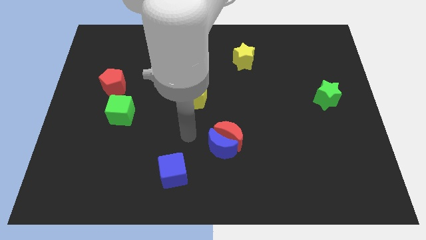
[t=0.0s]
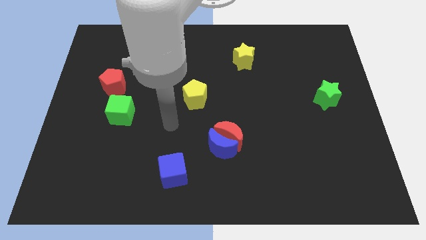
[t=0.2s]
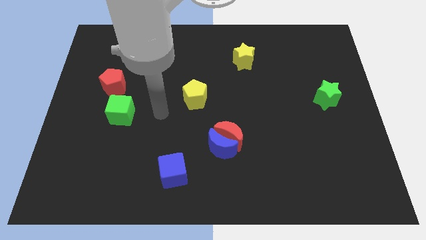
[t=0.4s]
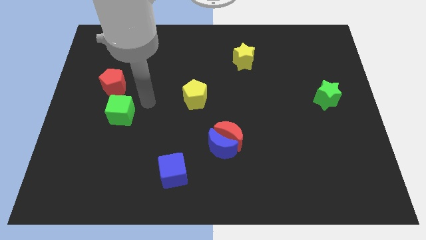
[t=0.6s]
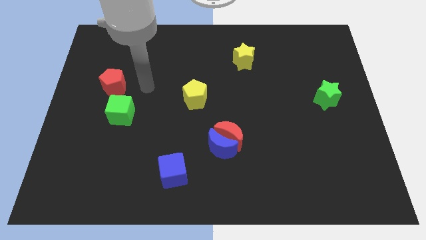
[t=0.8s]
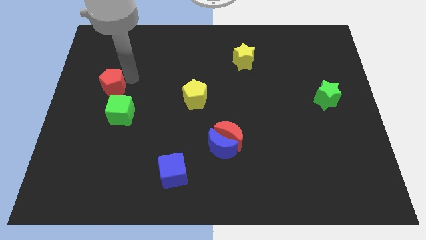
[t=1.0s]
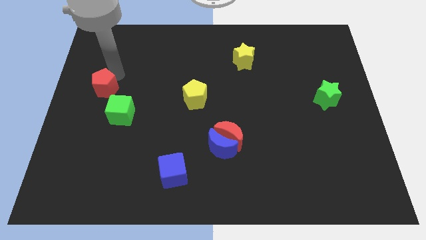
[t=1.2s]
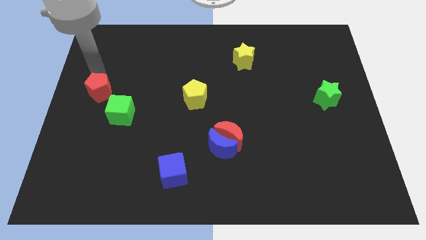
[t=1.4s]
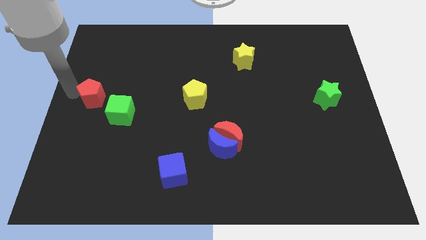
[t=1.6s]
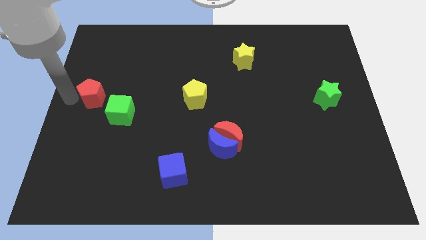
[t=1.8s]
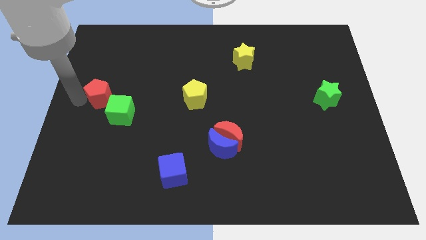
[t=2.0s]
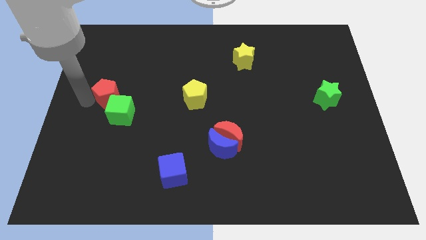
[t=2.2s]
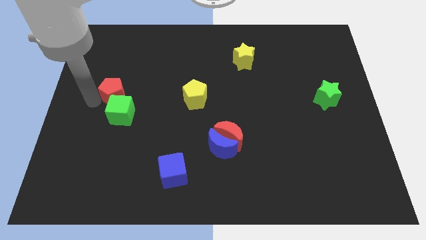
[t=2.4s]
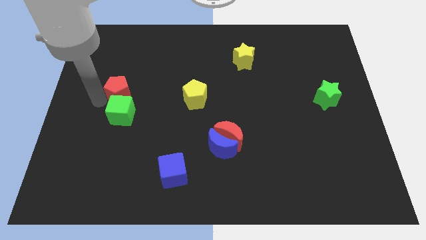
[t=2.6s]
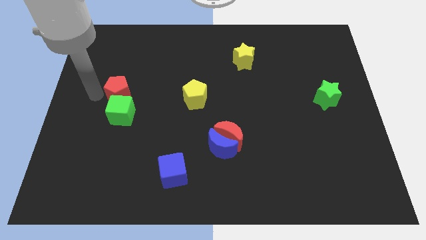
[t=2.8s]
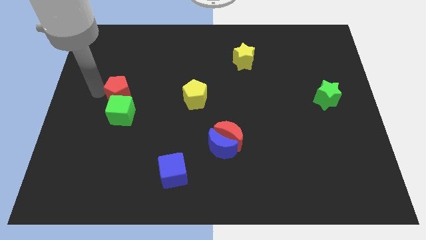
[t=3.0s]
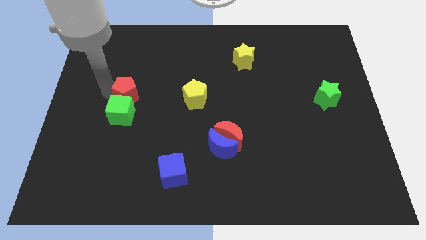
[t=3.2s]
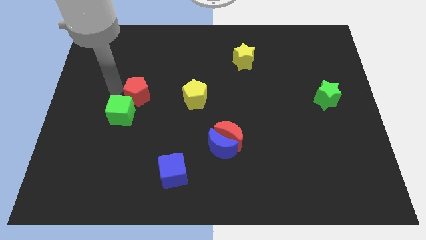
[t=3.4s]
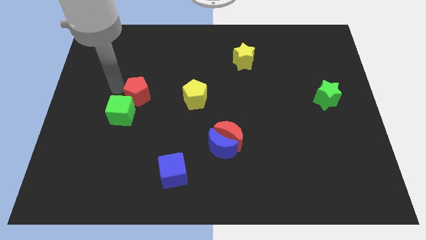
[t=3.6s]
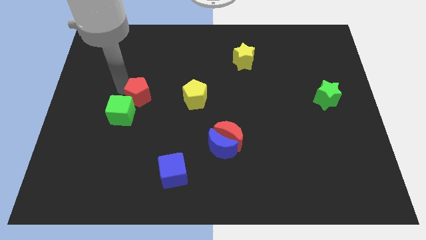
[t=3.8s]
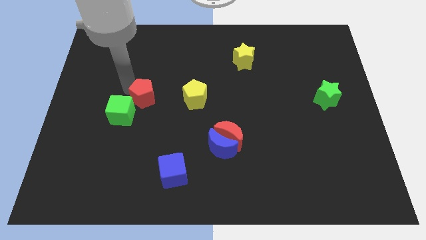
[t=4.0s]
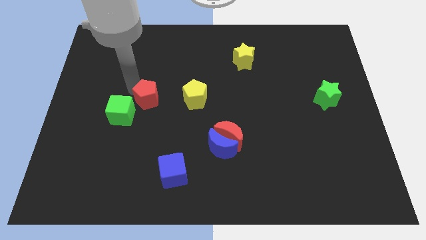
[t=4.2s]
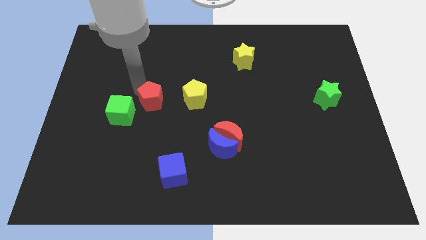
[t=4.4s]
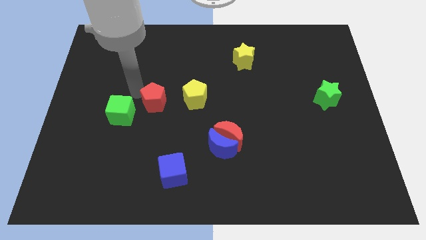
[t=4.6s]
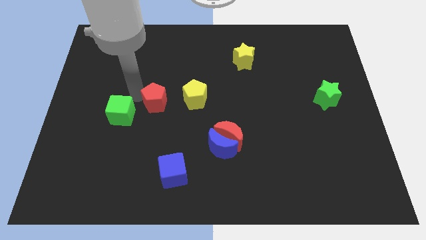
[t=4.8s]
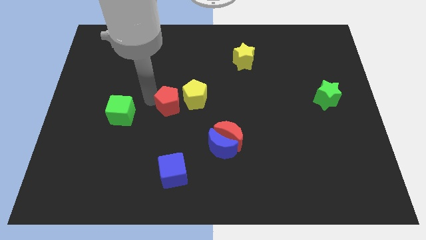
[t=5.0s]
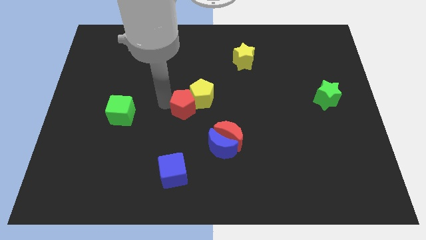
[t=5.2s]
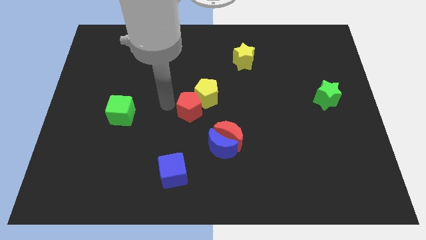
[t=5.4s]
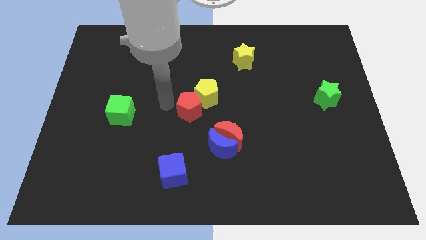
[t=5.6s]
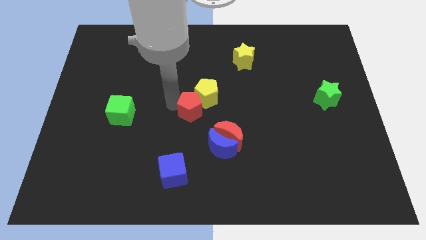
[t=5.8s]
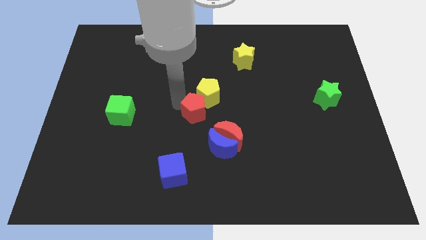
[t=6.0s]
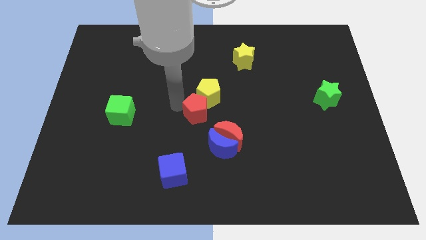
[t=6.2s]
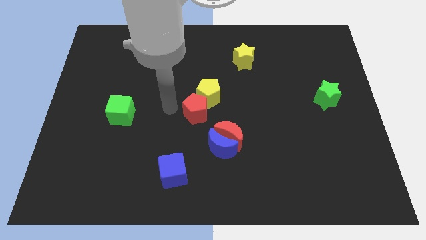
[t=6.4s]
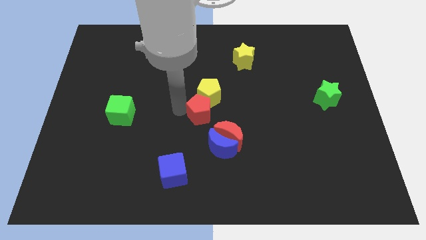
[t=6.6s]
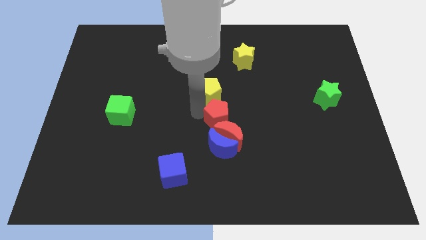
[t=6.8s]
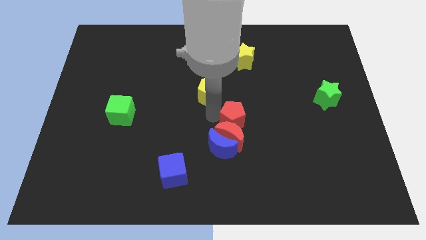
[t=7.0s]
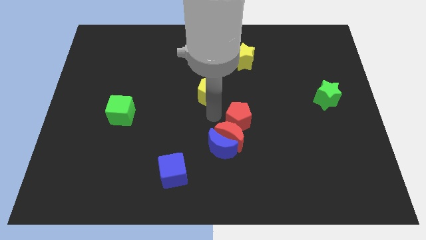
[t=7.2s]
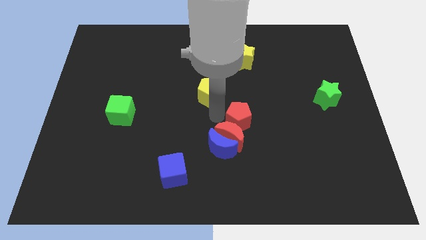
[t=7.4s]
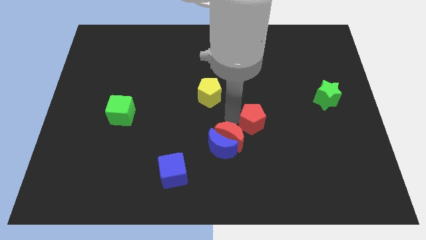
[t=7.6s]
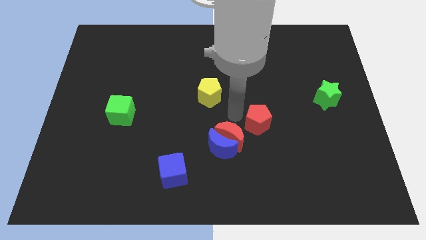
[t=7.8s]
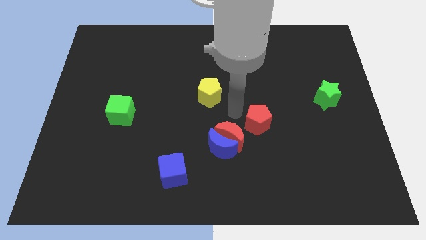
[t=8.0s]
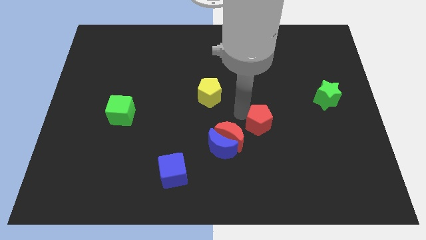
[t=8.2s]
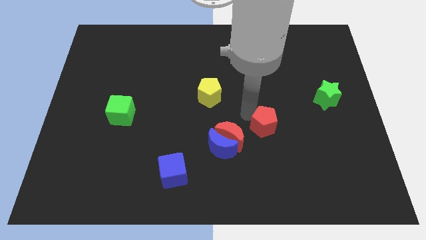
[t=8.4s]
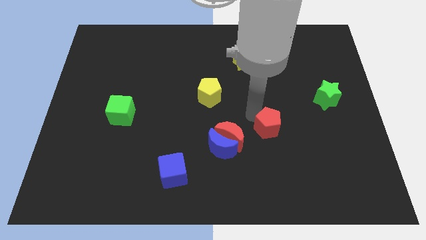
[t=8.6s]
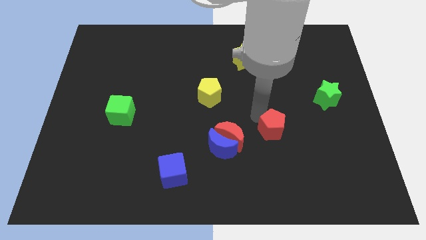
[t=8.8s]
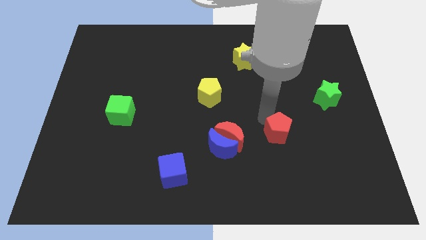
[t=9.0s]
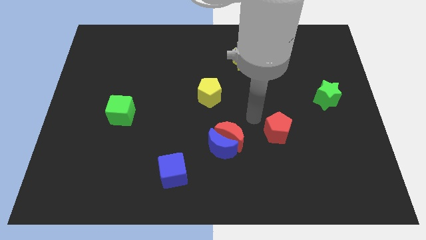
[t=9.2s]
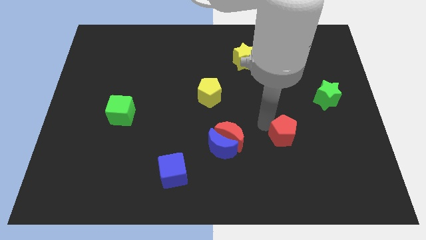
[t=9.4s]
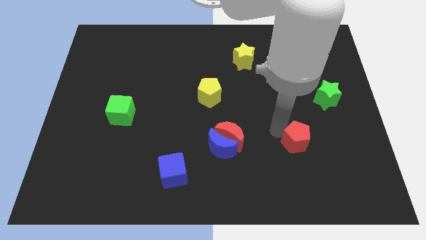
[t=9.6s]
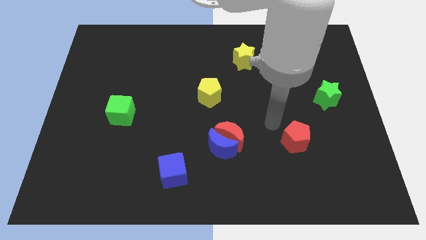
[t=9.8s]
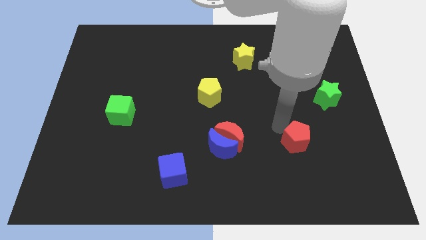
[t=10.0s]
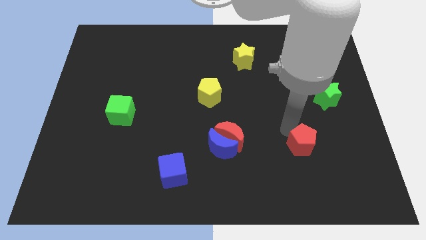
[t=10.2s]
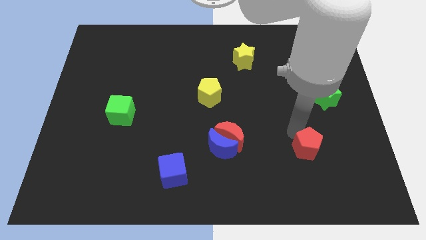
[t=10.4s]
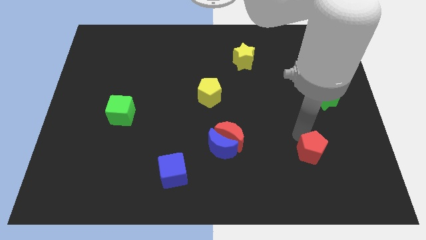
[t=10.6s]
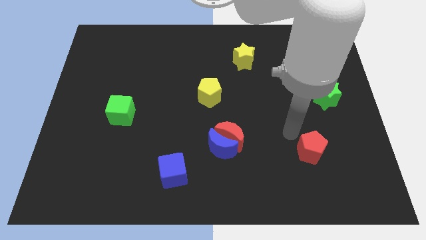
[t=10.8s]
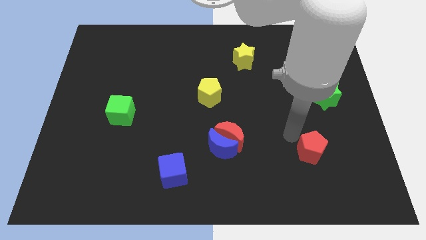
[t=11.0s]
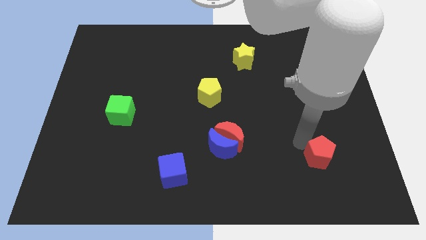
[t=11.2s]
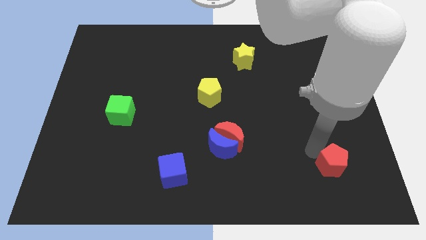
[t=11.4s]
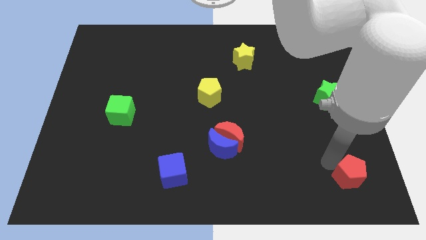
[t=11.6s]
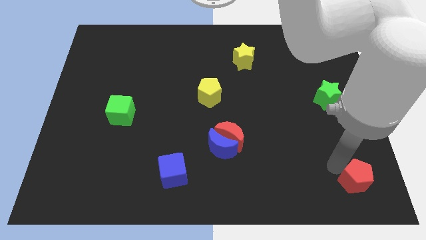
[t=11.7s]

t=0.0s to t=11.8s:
push the red pentagon to the bottom right
